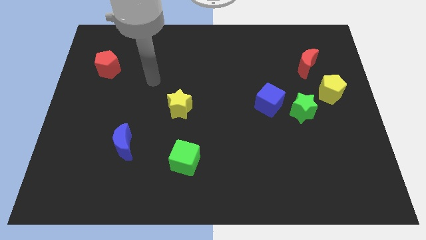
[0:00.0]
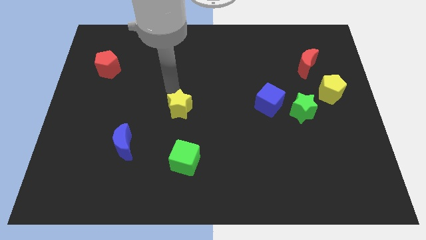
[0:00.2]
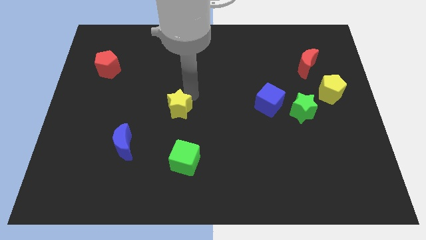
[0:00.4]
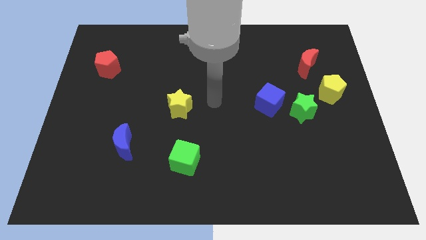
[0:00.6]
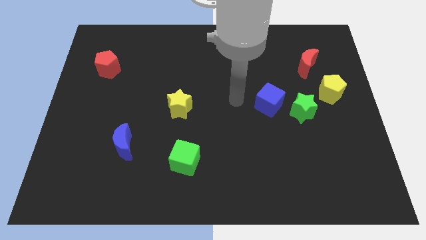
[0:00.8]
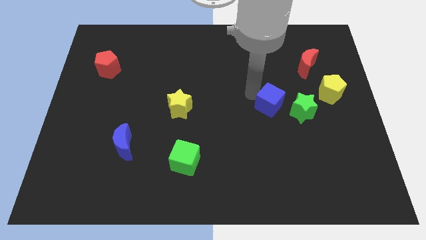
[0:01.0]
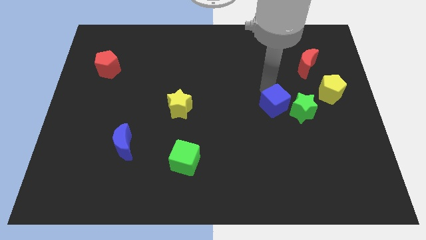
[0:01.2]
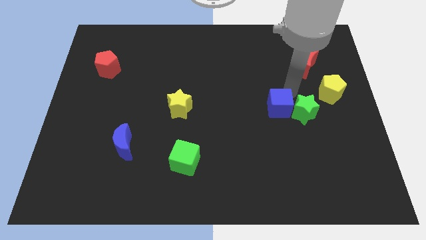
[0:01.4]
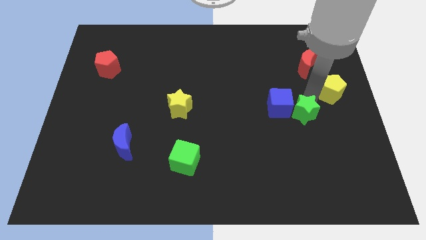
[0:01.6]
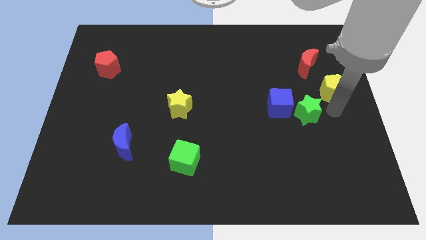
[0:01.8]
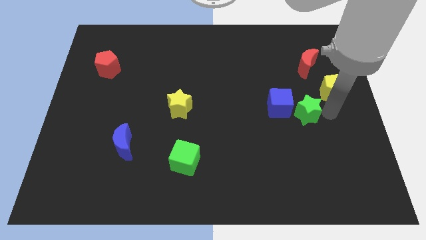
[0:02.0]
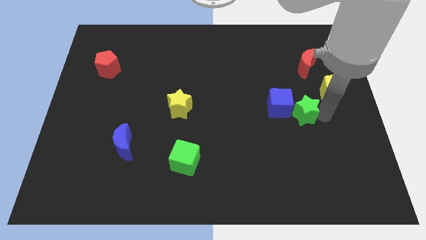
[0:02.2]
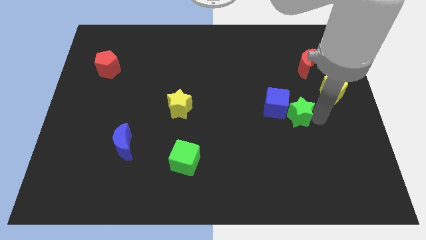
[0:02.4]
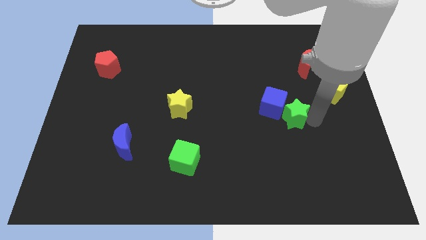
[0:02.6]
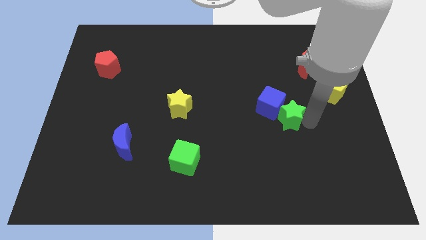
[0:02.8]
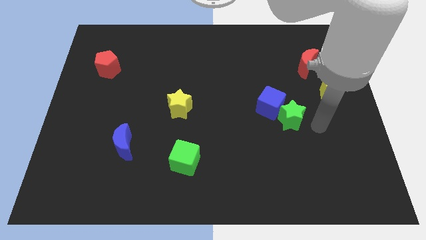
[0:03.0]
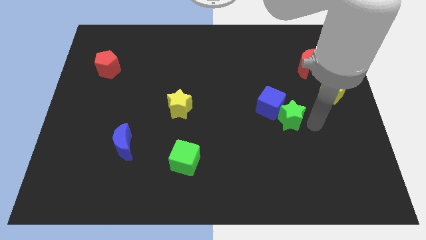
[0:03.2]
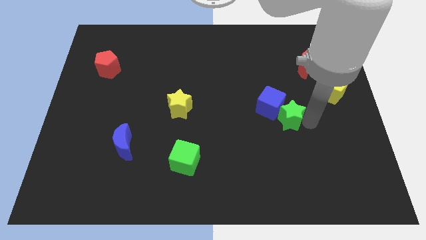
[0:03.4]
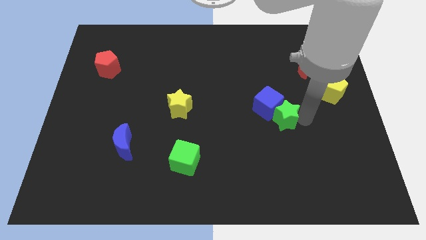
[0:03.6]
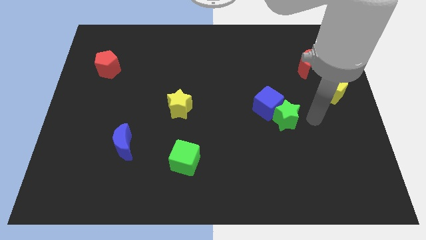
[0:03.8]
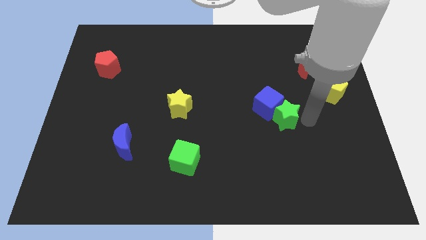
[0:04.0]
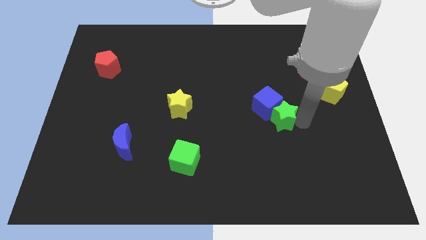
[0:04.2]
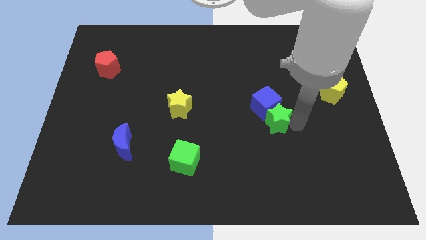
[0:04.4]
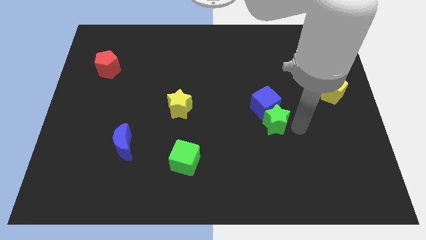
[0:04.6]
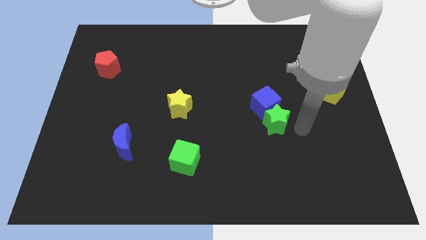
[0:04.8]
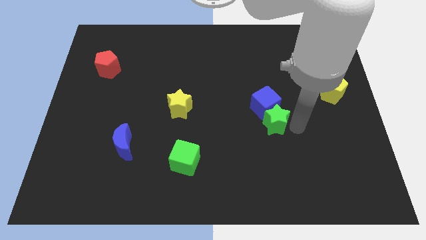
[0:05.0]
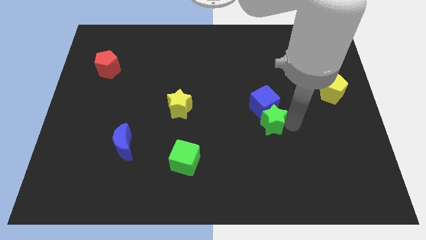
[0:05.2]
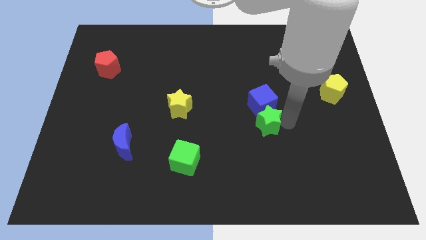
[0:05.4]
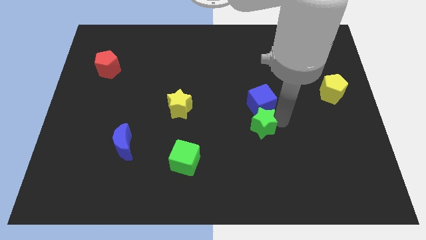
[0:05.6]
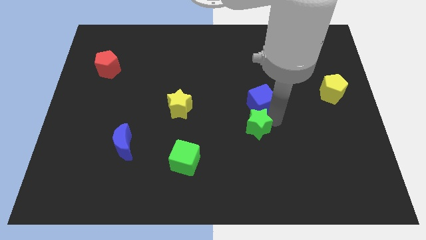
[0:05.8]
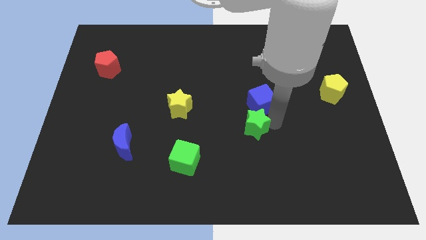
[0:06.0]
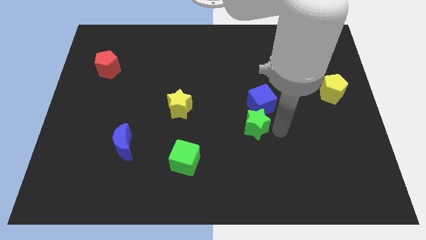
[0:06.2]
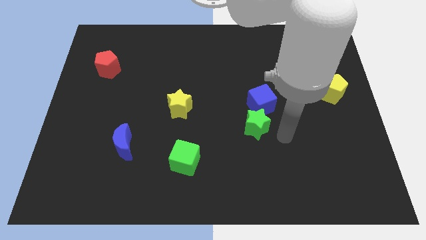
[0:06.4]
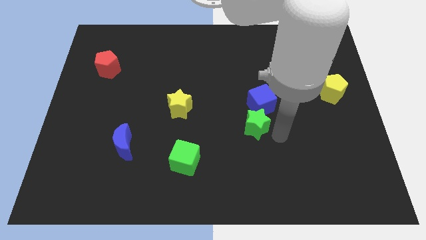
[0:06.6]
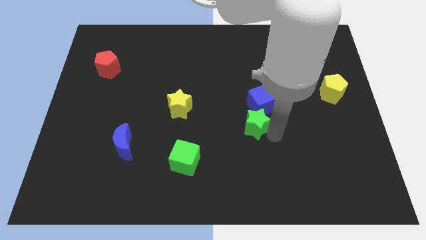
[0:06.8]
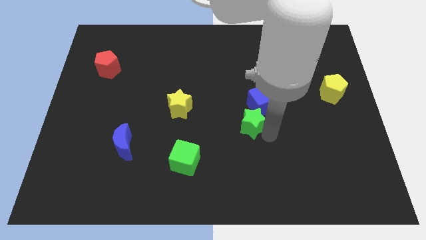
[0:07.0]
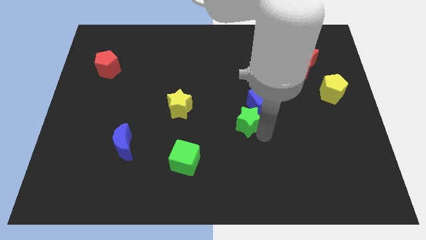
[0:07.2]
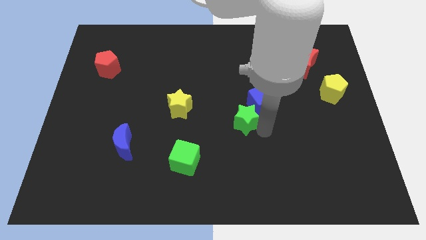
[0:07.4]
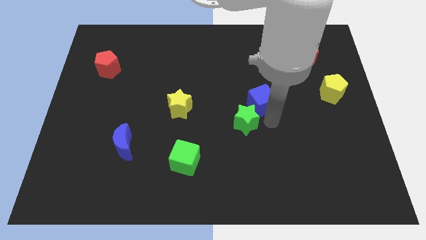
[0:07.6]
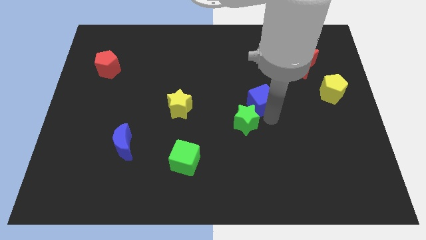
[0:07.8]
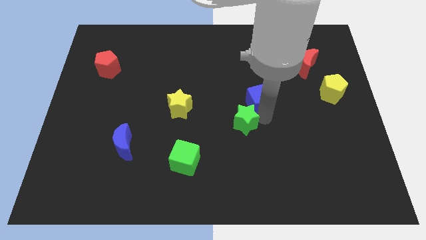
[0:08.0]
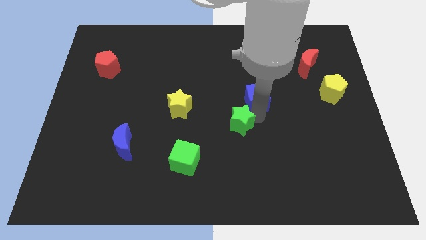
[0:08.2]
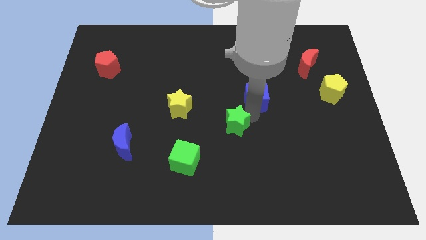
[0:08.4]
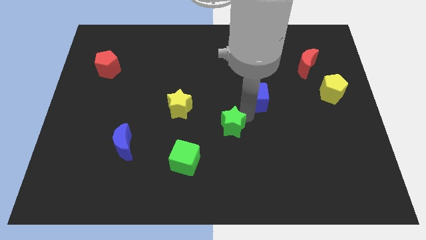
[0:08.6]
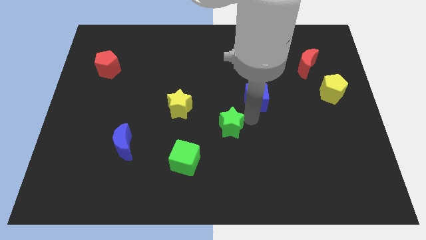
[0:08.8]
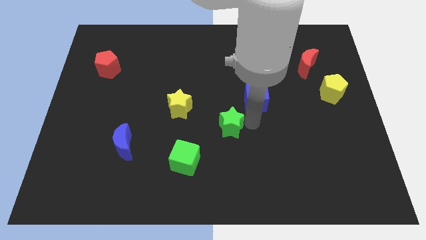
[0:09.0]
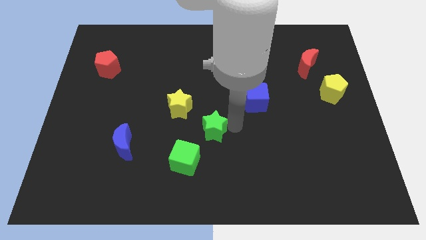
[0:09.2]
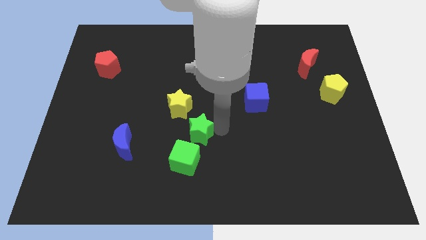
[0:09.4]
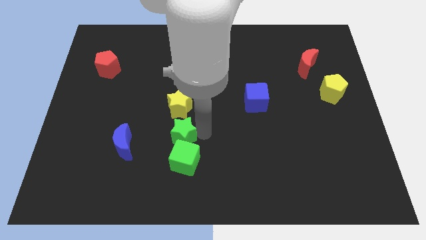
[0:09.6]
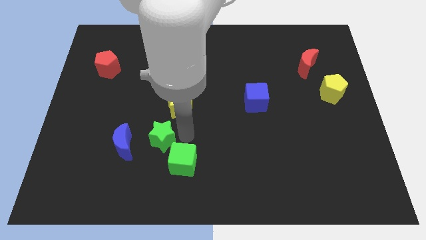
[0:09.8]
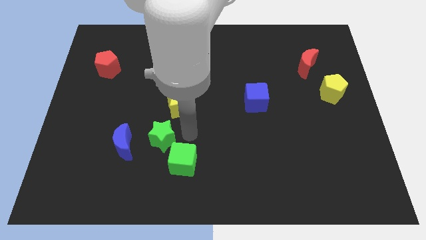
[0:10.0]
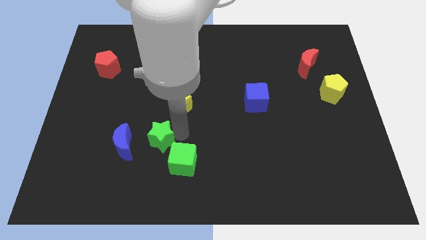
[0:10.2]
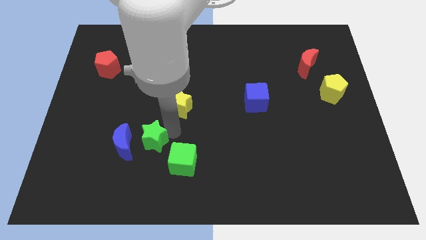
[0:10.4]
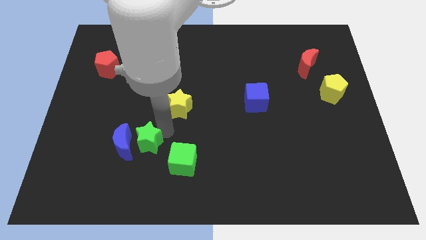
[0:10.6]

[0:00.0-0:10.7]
push the green star close to the blue moon

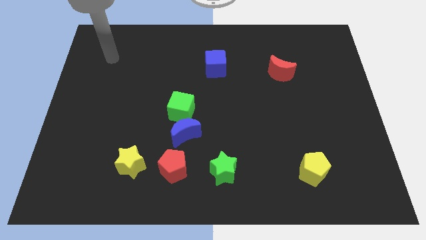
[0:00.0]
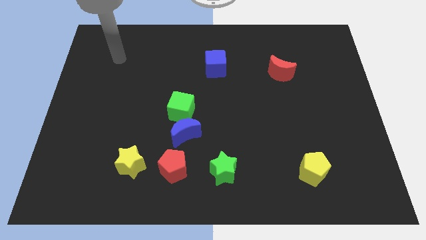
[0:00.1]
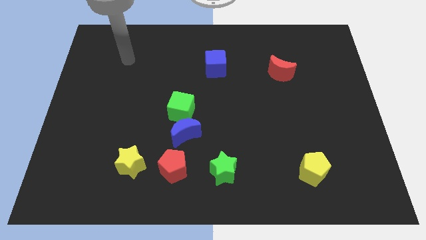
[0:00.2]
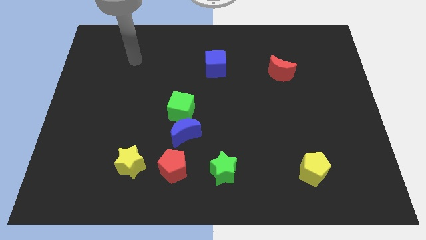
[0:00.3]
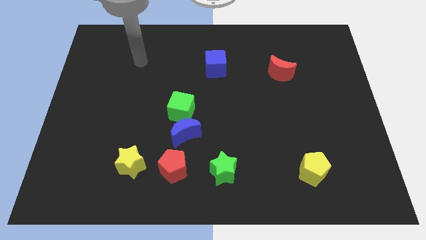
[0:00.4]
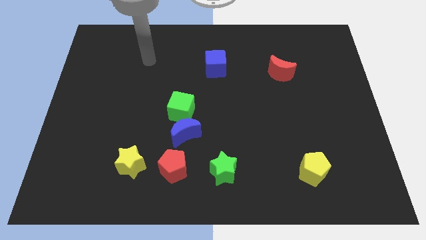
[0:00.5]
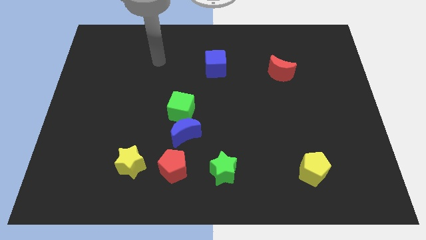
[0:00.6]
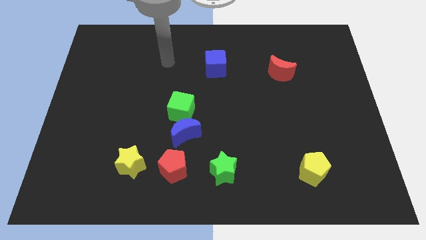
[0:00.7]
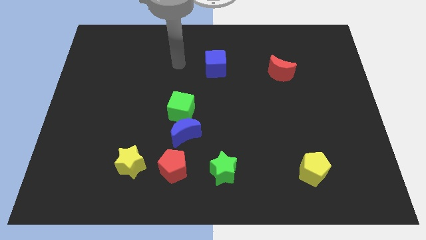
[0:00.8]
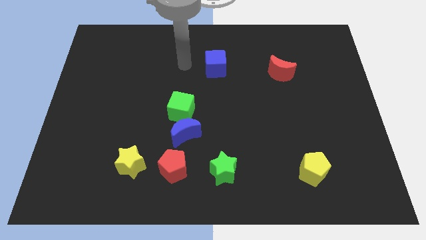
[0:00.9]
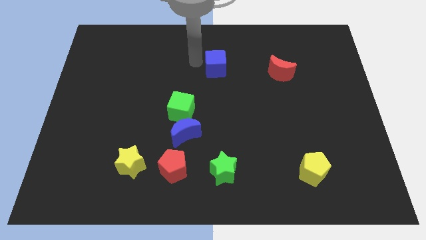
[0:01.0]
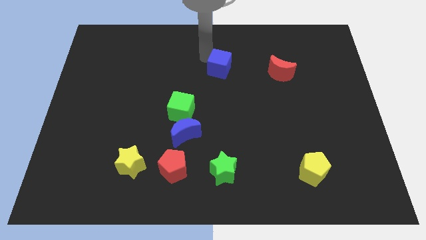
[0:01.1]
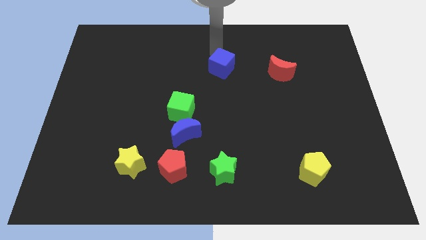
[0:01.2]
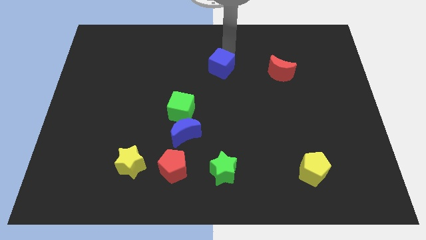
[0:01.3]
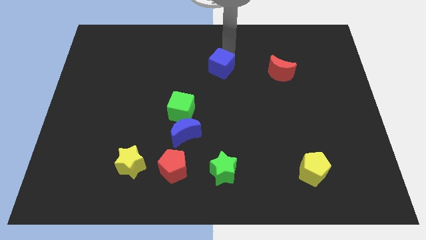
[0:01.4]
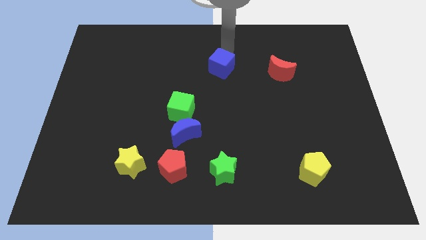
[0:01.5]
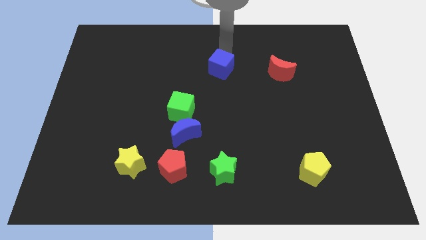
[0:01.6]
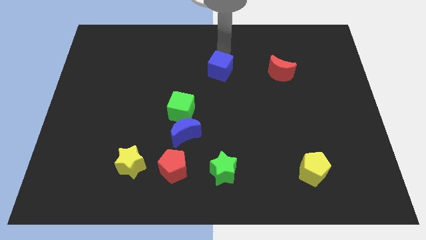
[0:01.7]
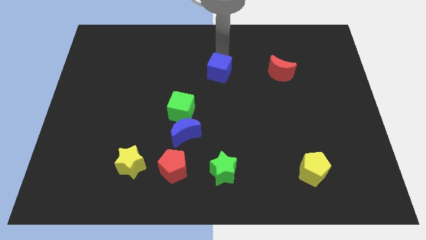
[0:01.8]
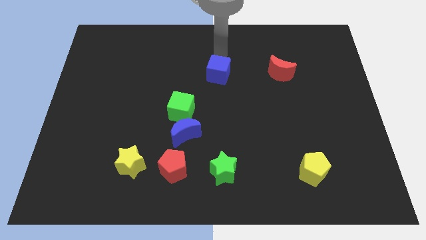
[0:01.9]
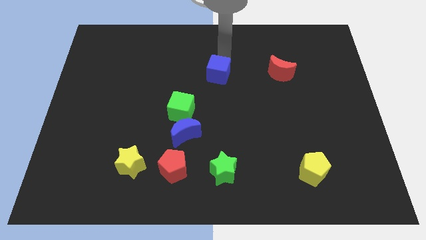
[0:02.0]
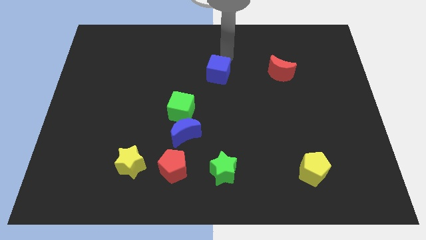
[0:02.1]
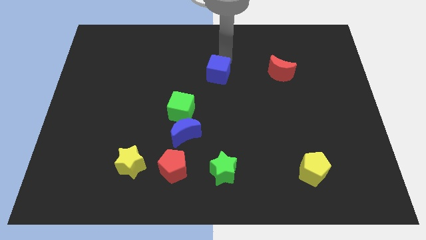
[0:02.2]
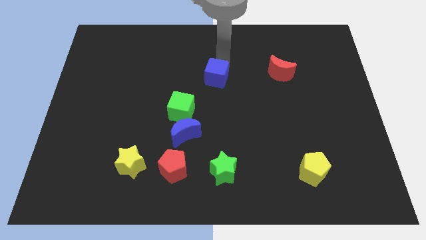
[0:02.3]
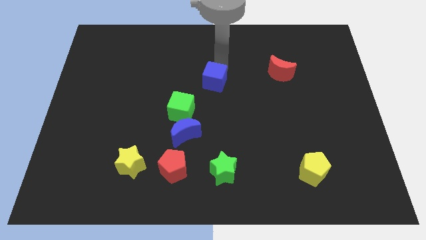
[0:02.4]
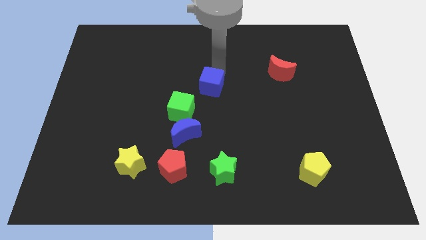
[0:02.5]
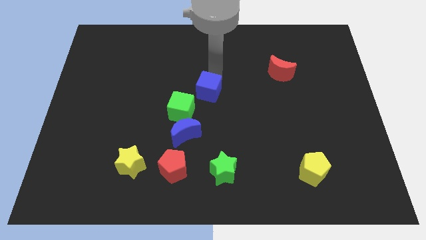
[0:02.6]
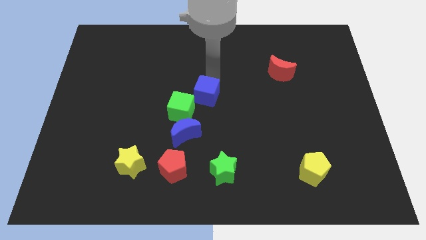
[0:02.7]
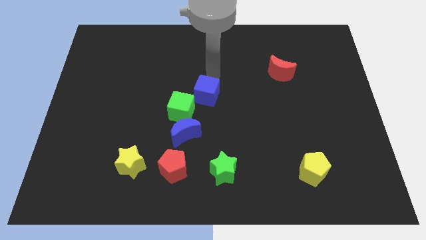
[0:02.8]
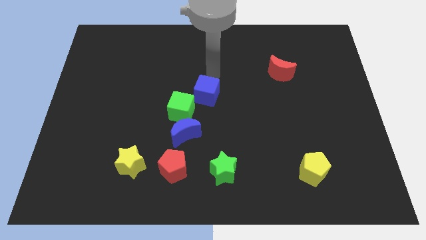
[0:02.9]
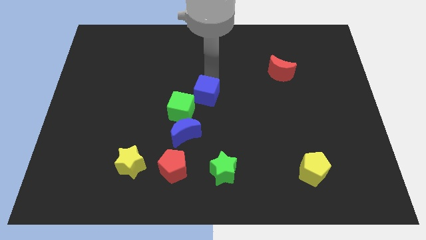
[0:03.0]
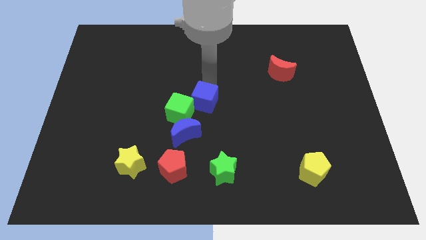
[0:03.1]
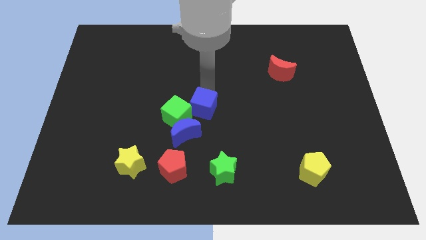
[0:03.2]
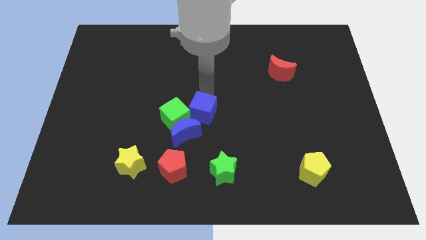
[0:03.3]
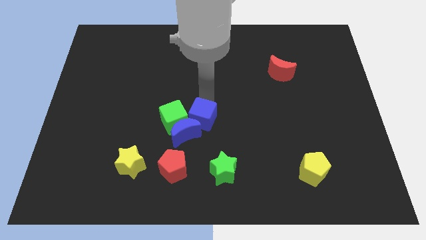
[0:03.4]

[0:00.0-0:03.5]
slide the blue cube towards the blue moon
